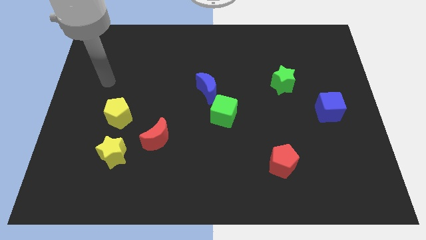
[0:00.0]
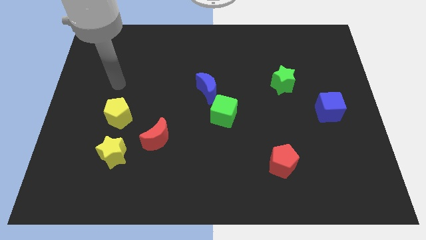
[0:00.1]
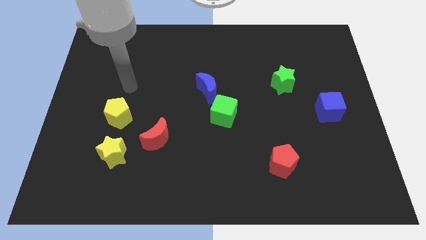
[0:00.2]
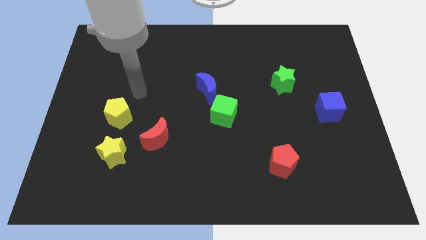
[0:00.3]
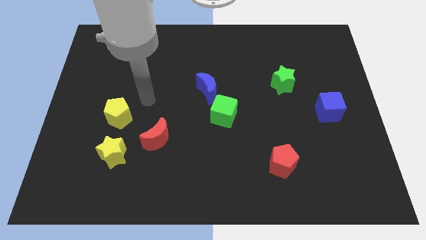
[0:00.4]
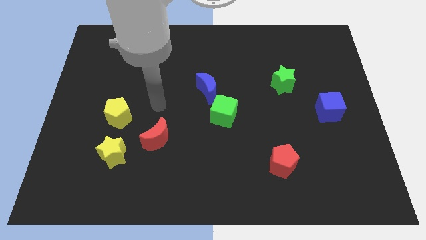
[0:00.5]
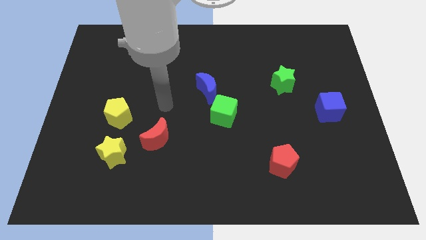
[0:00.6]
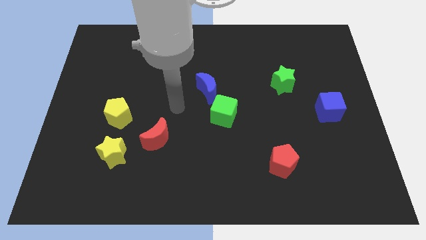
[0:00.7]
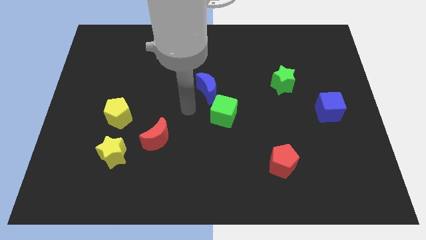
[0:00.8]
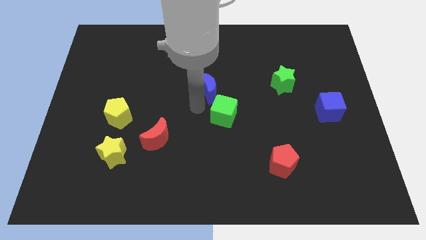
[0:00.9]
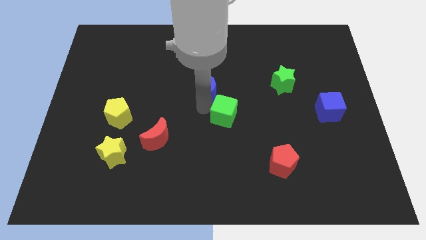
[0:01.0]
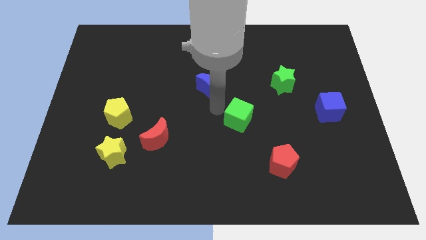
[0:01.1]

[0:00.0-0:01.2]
move the blue moon away from the green cube

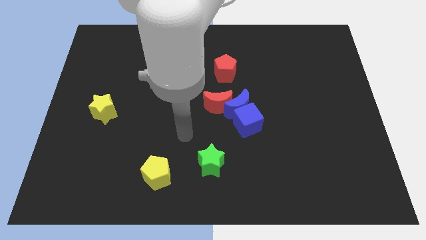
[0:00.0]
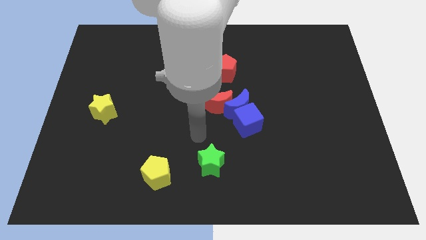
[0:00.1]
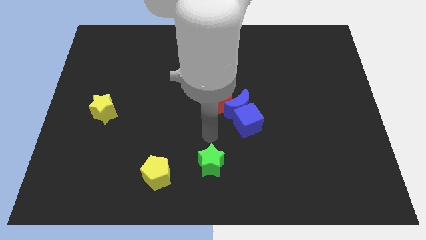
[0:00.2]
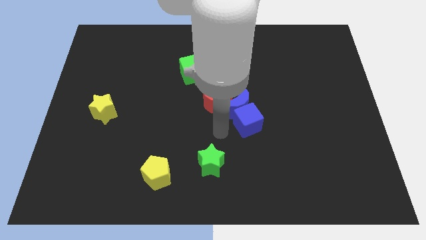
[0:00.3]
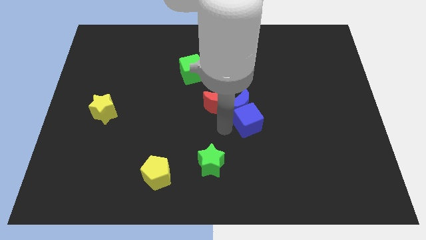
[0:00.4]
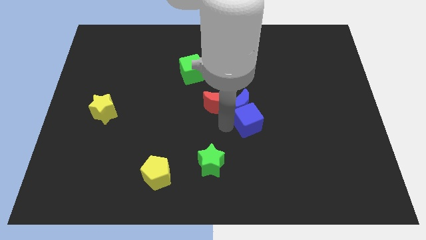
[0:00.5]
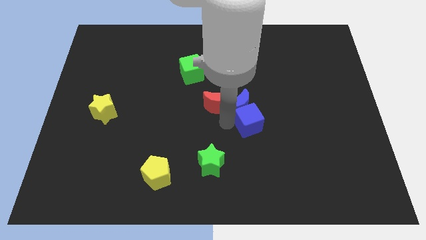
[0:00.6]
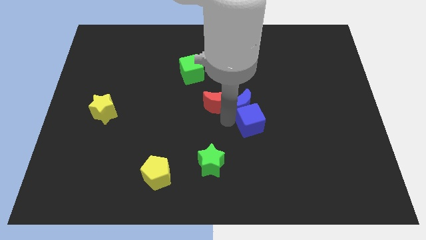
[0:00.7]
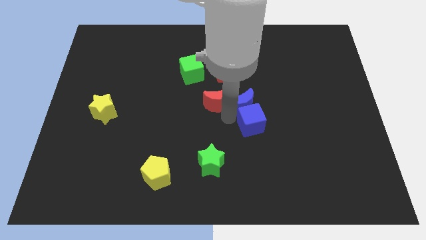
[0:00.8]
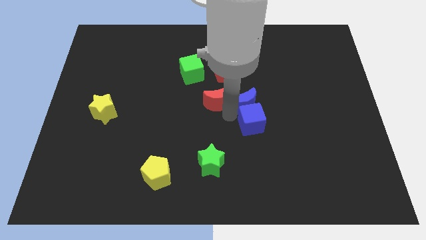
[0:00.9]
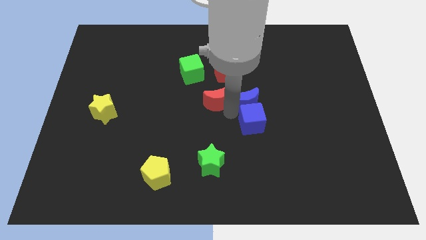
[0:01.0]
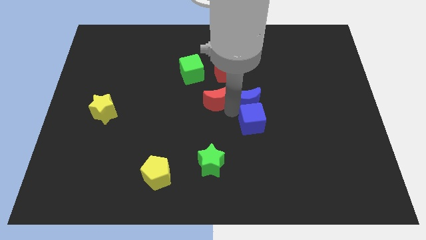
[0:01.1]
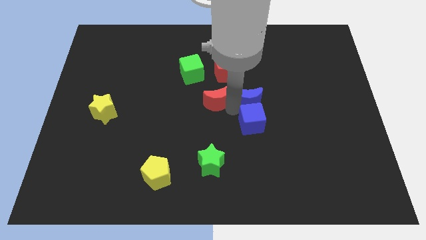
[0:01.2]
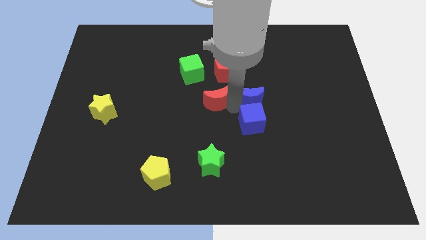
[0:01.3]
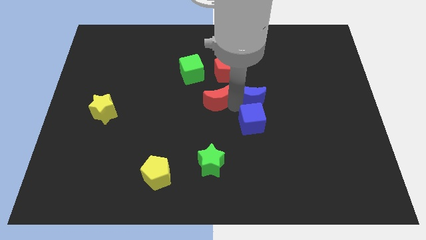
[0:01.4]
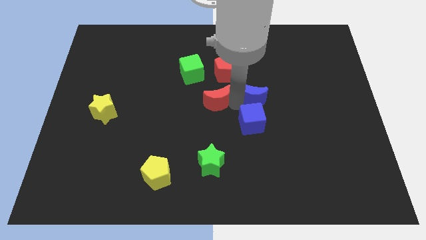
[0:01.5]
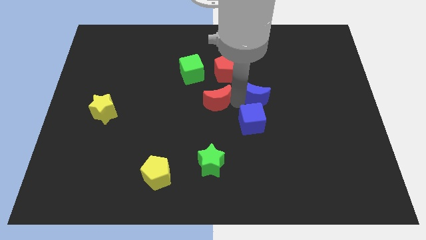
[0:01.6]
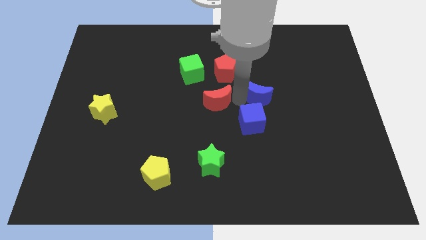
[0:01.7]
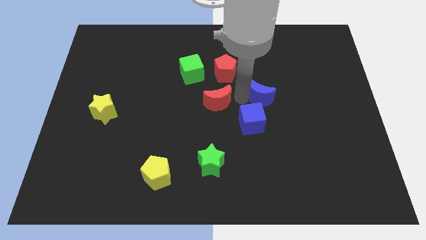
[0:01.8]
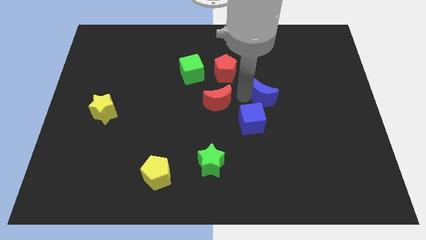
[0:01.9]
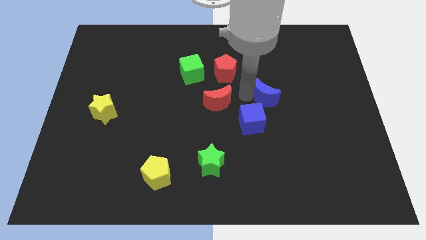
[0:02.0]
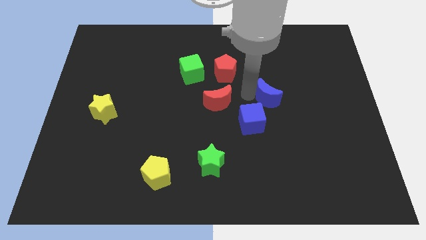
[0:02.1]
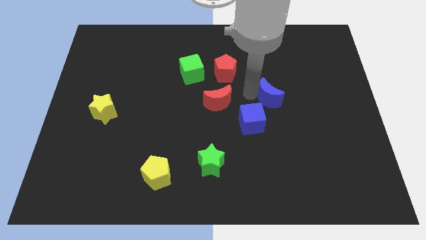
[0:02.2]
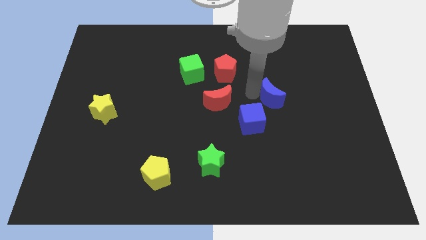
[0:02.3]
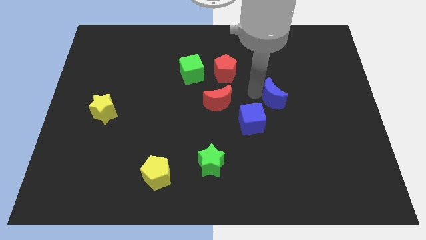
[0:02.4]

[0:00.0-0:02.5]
separate the blue moon from the blue cube and red moon

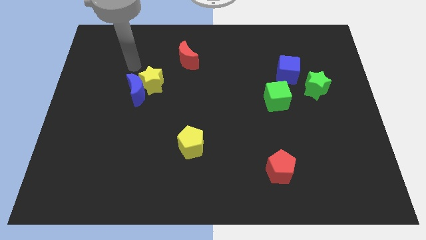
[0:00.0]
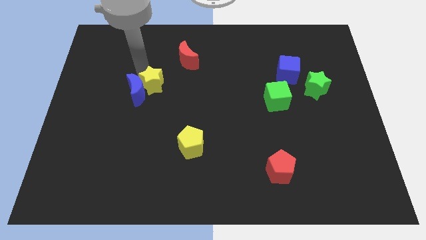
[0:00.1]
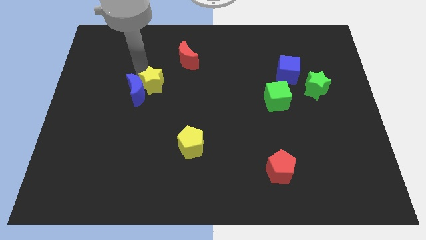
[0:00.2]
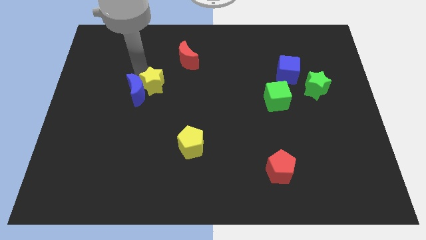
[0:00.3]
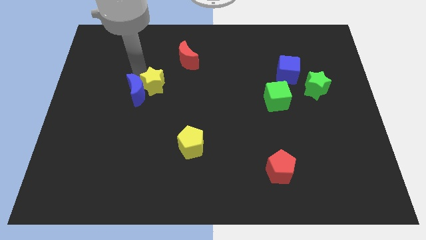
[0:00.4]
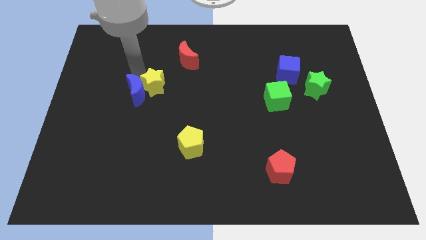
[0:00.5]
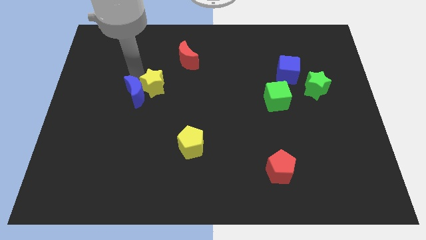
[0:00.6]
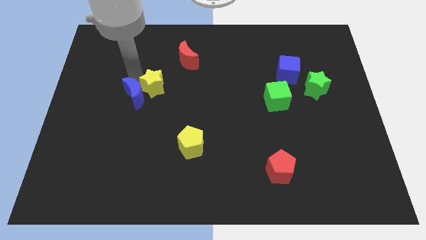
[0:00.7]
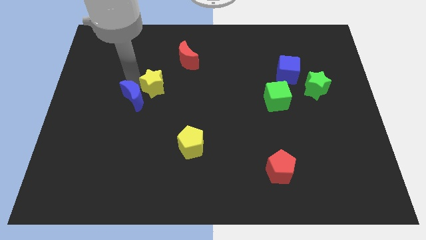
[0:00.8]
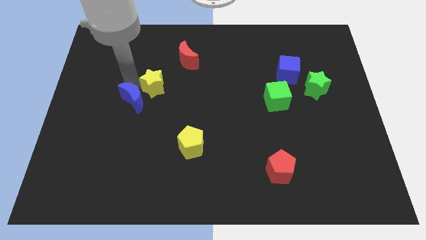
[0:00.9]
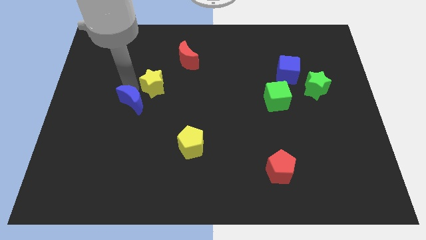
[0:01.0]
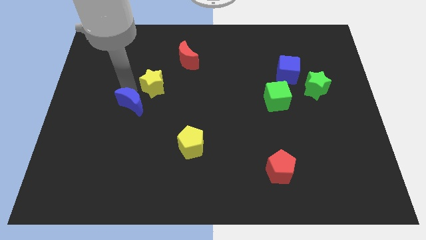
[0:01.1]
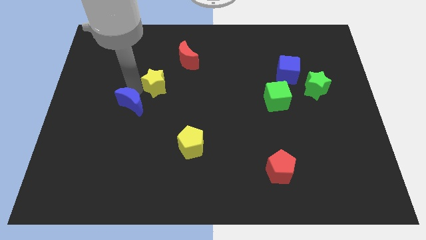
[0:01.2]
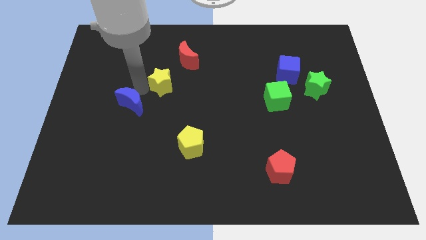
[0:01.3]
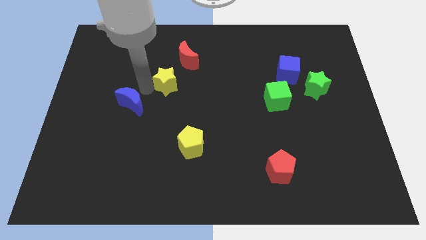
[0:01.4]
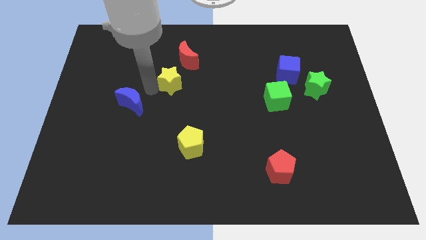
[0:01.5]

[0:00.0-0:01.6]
pull the blue moon apart from the yellow star

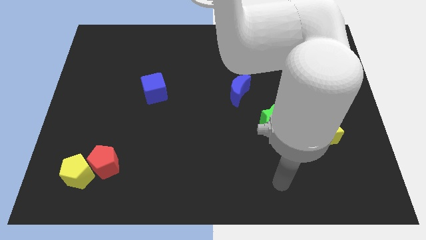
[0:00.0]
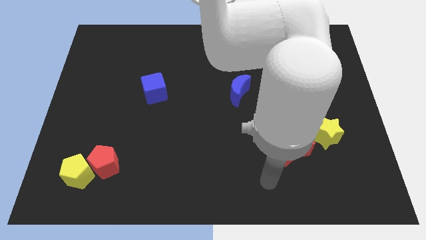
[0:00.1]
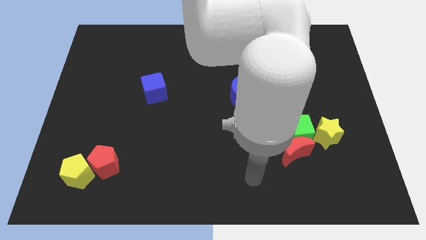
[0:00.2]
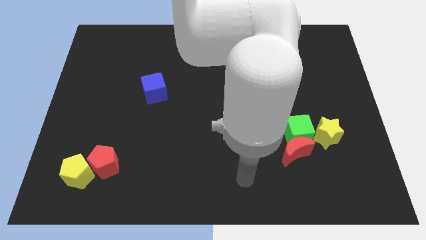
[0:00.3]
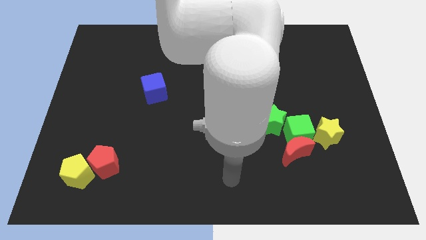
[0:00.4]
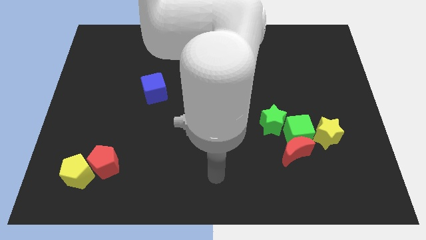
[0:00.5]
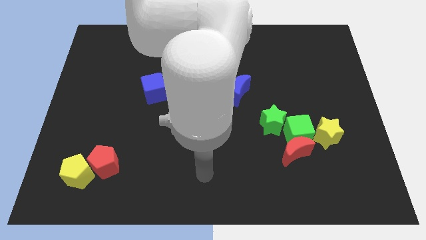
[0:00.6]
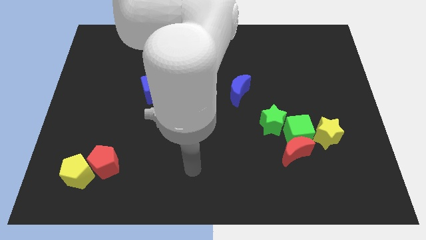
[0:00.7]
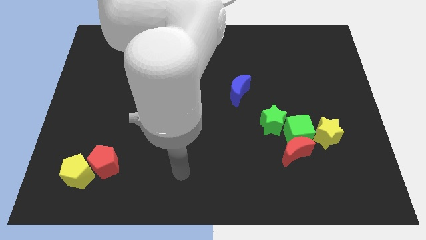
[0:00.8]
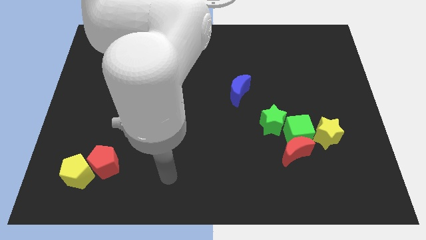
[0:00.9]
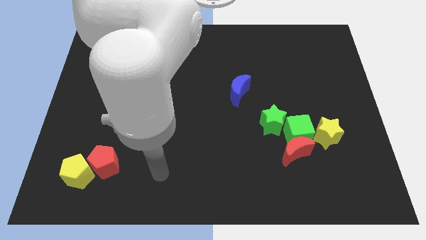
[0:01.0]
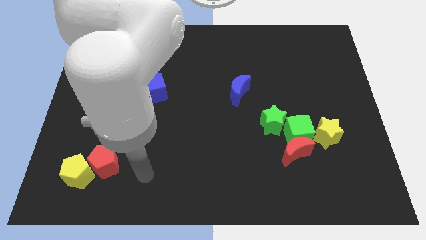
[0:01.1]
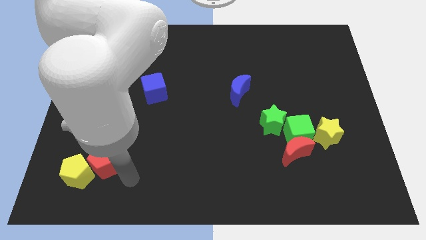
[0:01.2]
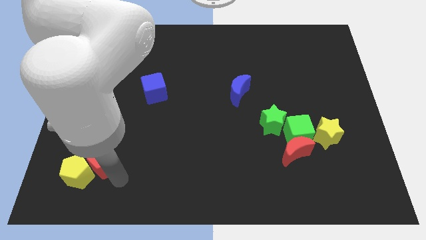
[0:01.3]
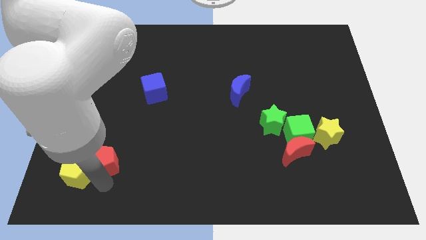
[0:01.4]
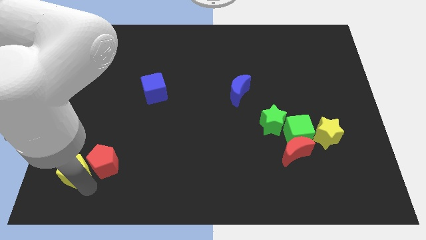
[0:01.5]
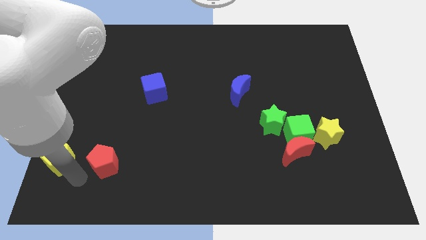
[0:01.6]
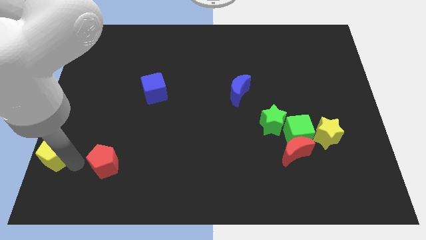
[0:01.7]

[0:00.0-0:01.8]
pull the red pentagon apart from the yellow pentagon

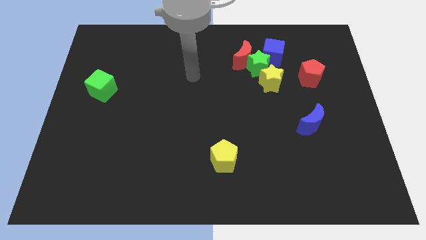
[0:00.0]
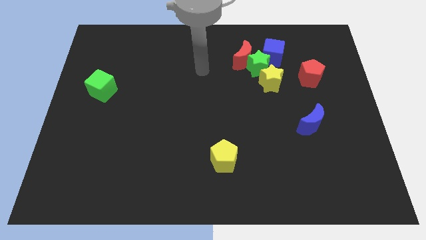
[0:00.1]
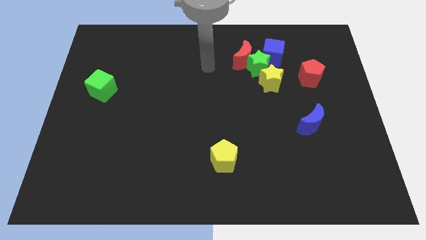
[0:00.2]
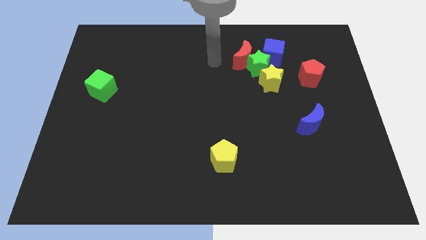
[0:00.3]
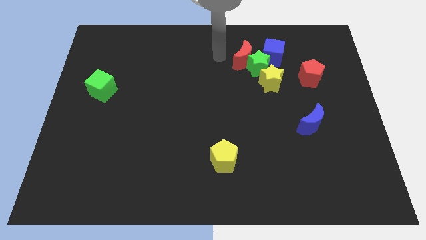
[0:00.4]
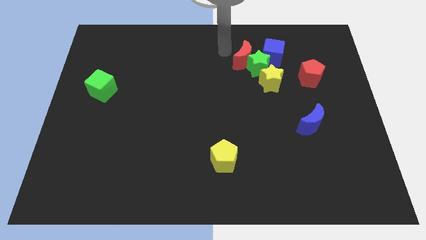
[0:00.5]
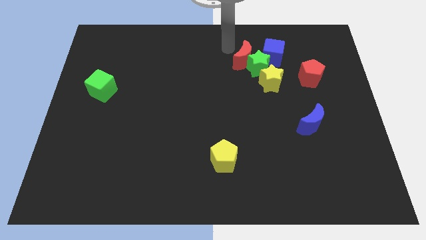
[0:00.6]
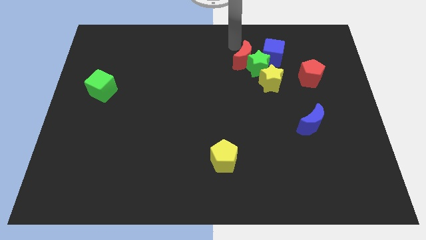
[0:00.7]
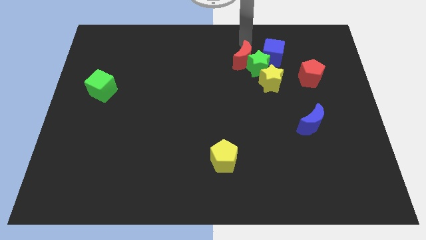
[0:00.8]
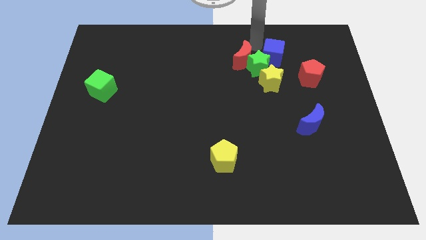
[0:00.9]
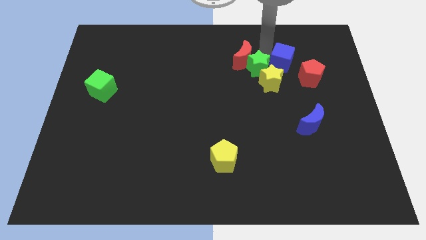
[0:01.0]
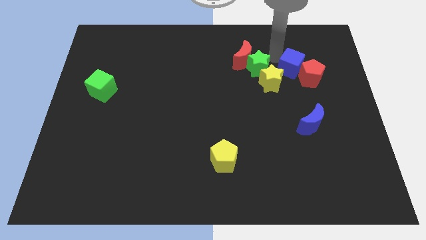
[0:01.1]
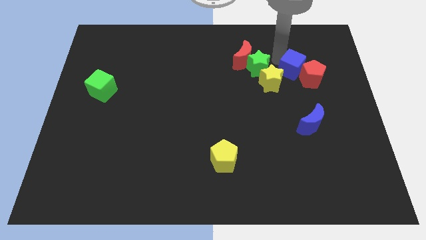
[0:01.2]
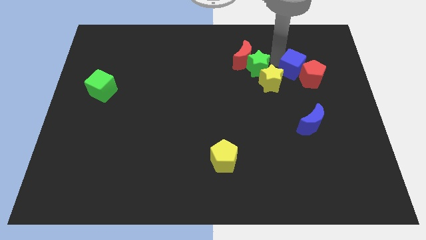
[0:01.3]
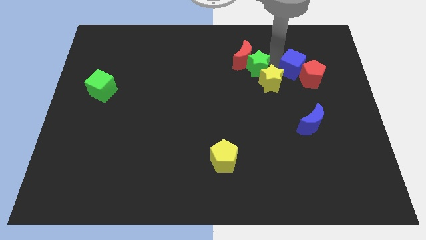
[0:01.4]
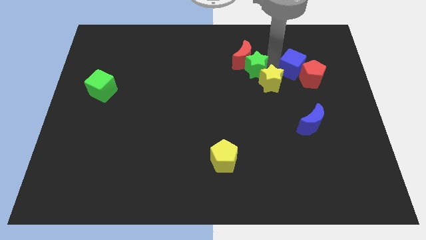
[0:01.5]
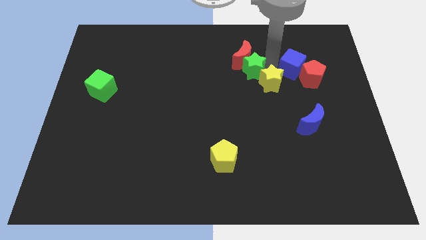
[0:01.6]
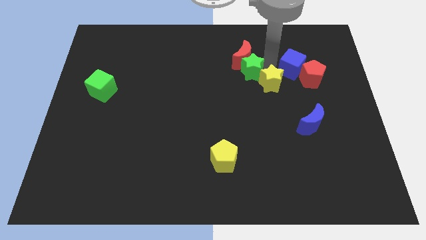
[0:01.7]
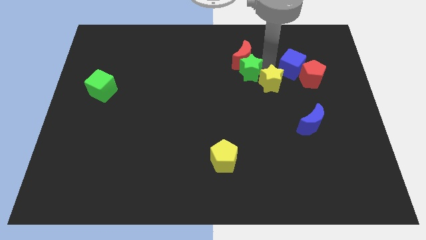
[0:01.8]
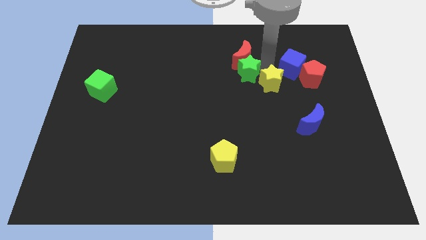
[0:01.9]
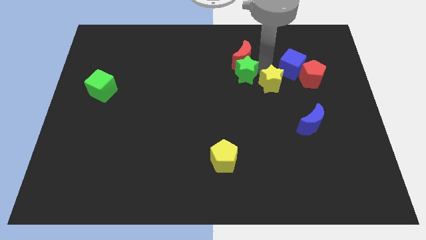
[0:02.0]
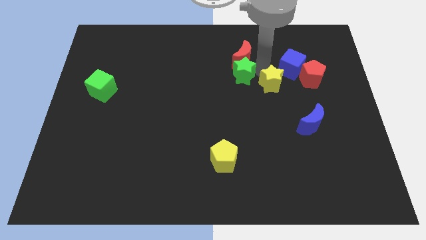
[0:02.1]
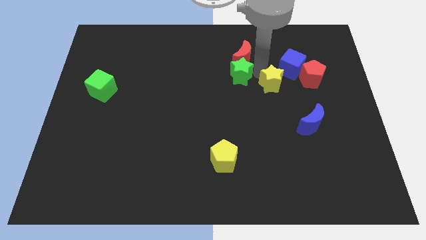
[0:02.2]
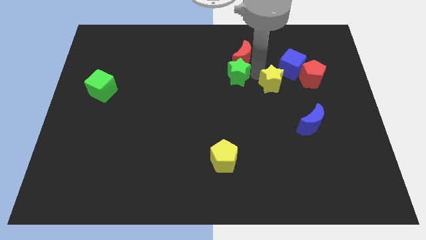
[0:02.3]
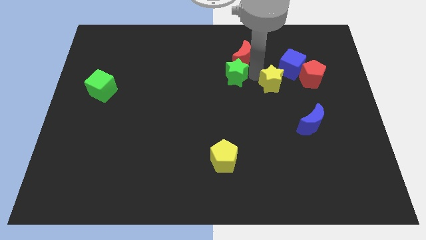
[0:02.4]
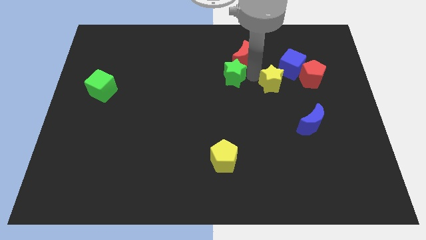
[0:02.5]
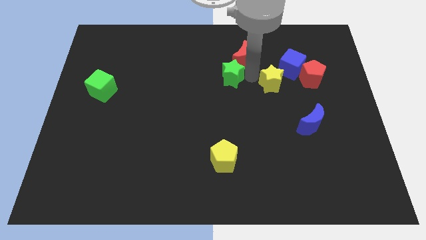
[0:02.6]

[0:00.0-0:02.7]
move the green star away from the group of blocks
